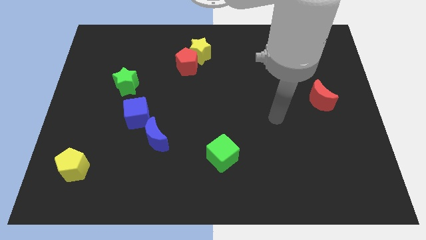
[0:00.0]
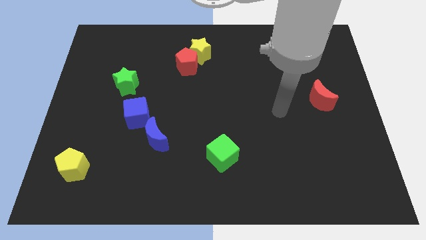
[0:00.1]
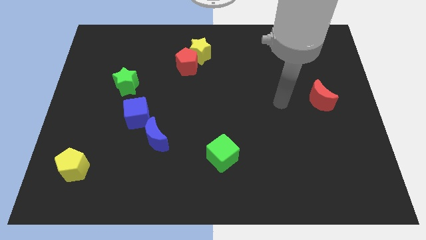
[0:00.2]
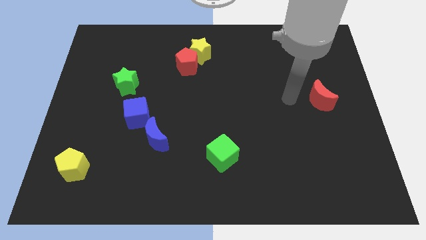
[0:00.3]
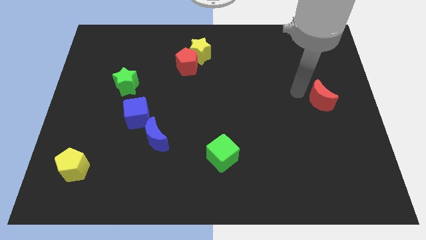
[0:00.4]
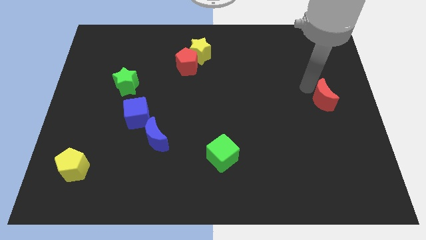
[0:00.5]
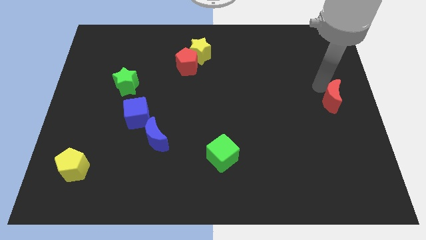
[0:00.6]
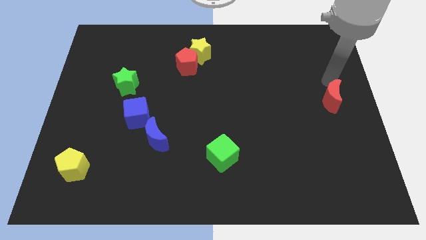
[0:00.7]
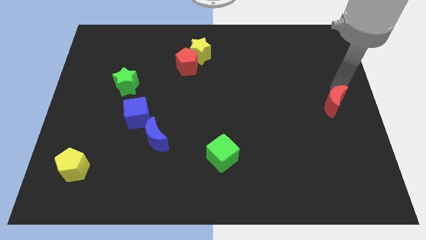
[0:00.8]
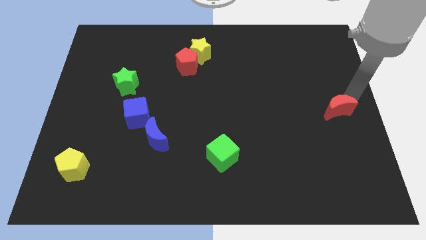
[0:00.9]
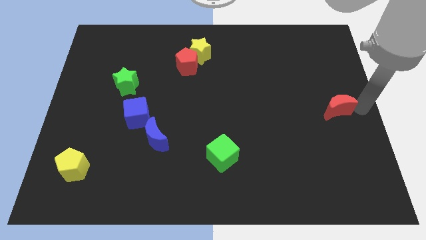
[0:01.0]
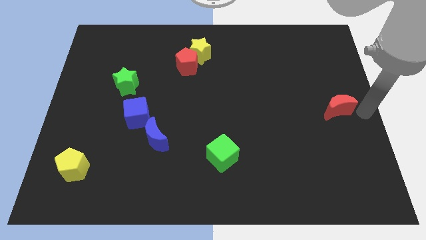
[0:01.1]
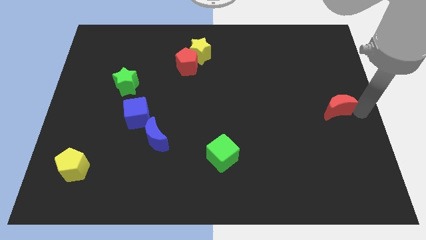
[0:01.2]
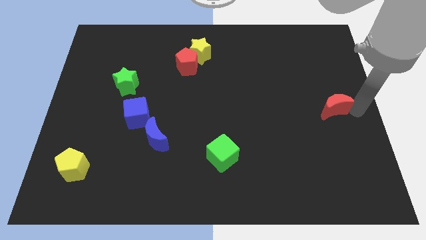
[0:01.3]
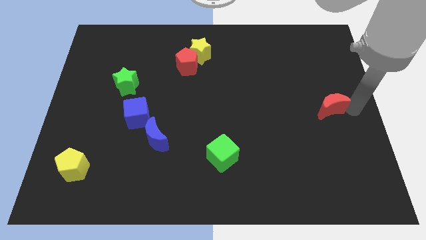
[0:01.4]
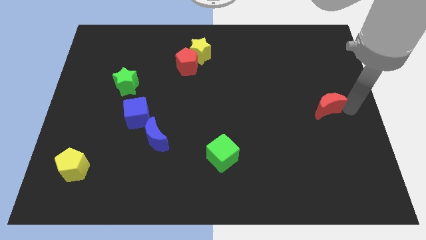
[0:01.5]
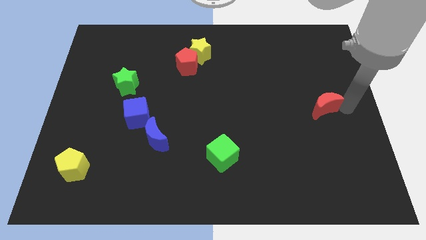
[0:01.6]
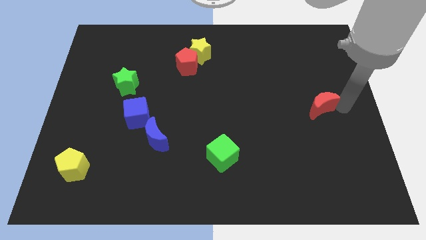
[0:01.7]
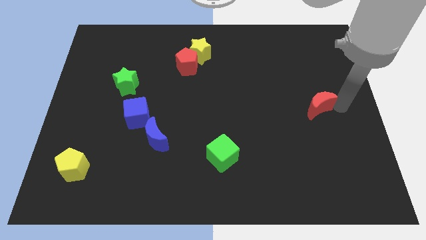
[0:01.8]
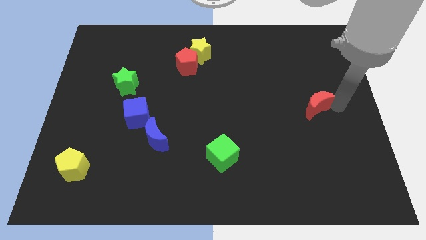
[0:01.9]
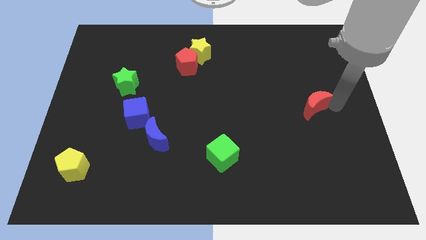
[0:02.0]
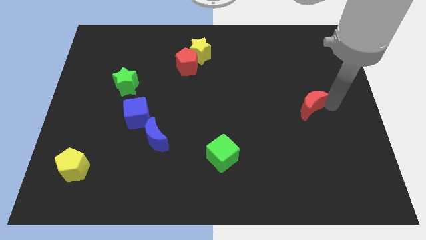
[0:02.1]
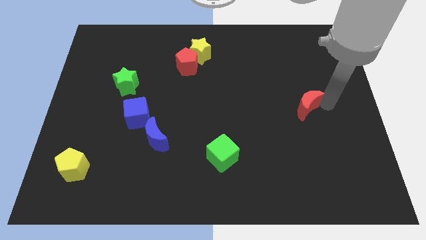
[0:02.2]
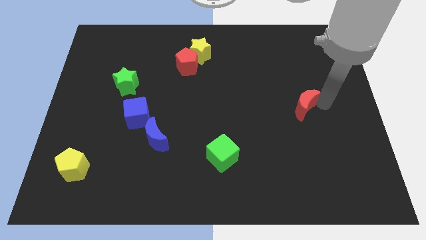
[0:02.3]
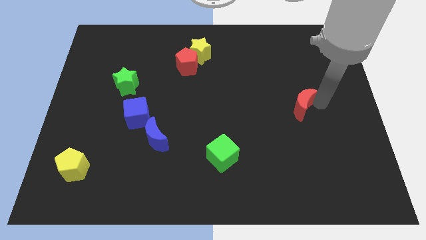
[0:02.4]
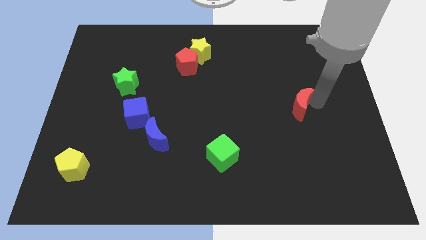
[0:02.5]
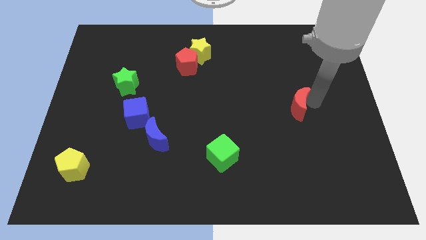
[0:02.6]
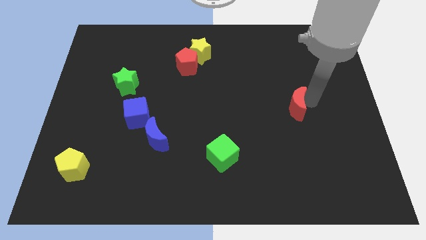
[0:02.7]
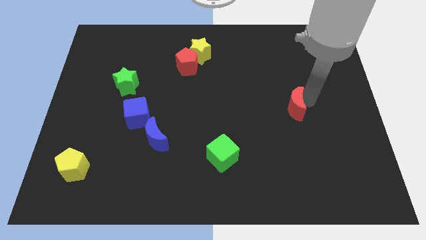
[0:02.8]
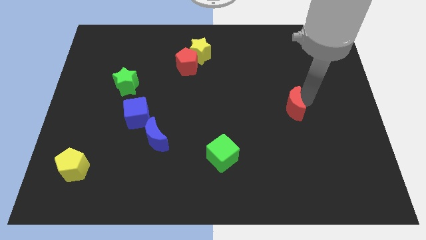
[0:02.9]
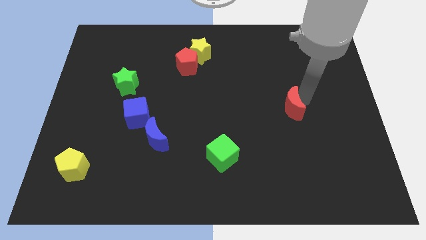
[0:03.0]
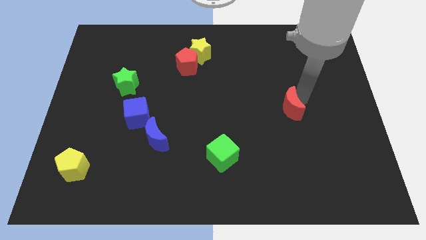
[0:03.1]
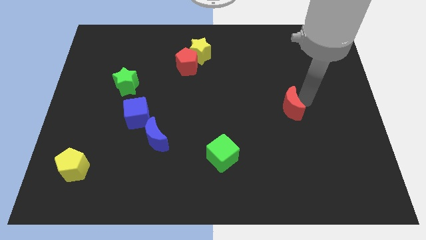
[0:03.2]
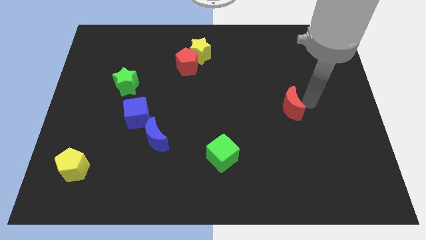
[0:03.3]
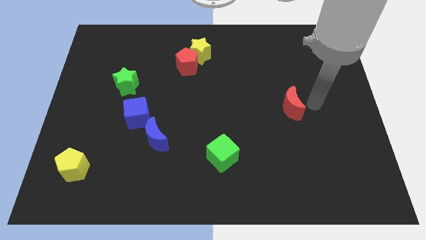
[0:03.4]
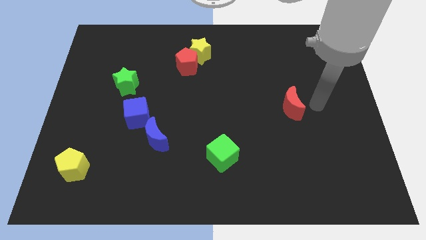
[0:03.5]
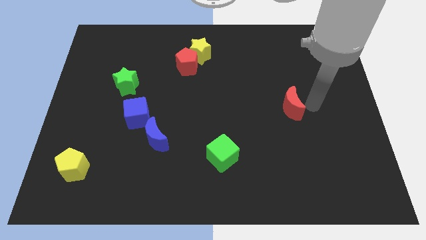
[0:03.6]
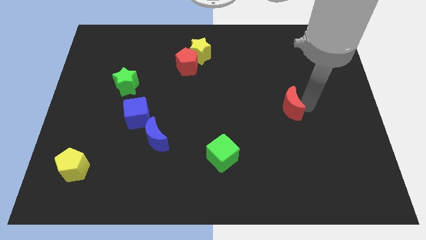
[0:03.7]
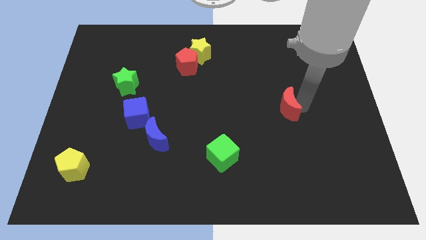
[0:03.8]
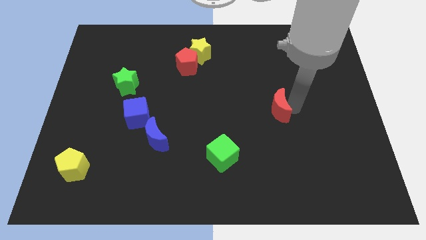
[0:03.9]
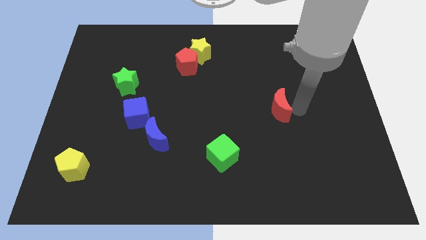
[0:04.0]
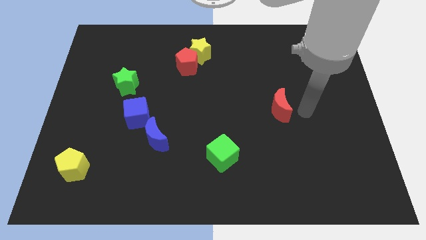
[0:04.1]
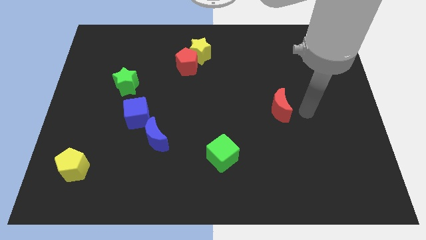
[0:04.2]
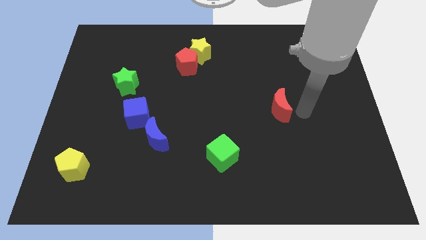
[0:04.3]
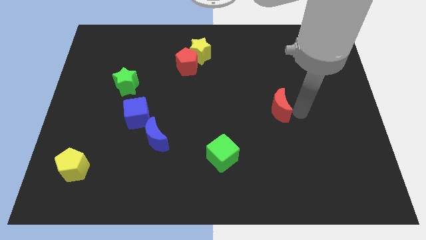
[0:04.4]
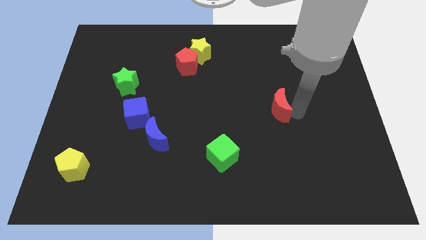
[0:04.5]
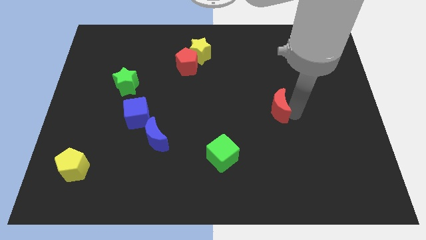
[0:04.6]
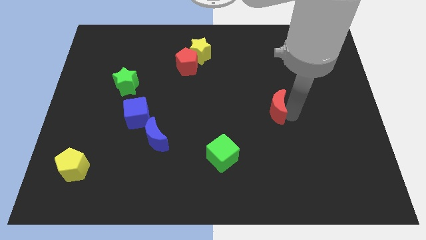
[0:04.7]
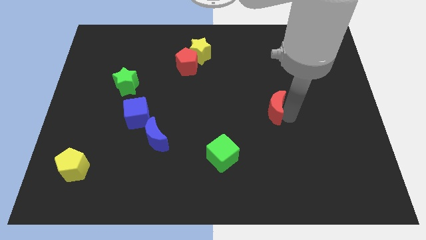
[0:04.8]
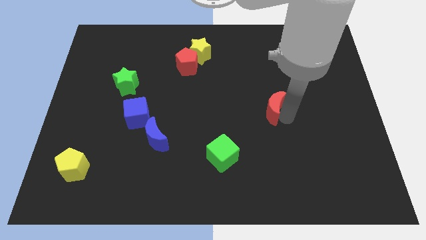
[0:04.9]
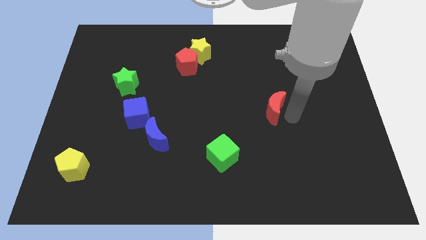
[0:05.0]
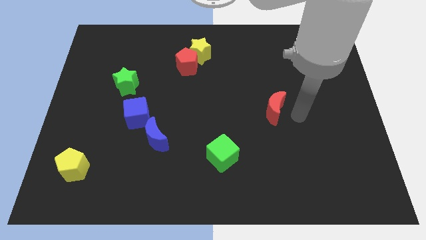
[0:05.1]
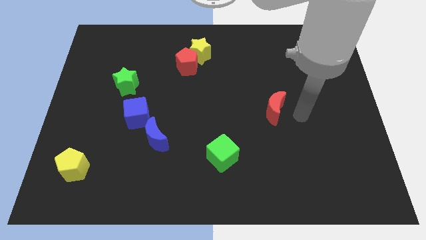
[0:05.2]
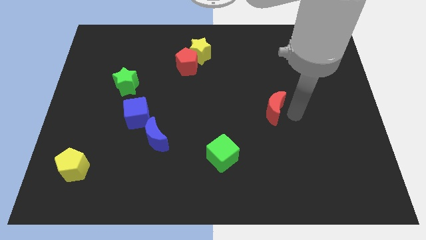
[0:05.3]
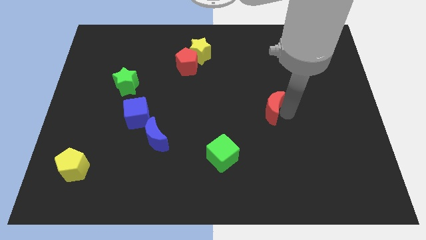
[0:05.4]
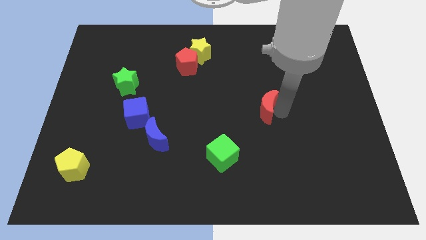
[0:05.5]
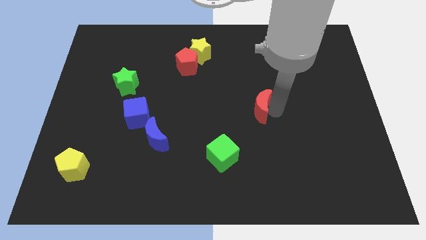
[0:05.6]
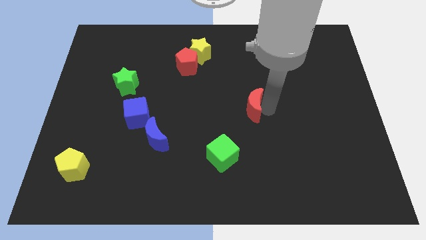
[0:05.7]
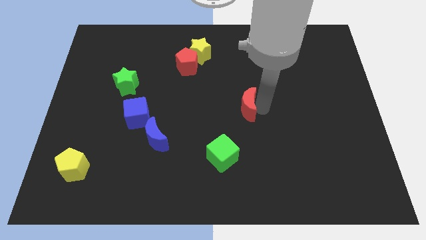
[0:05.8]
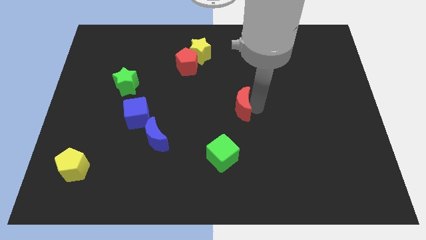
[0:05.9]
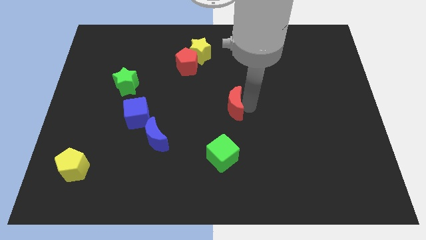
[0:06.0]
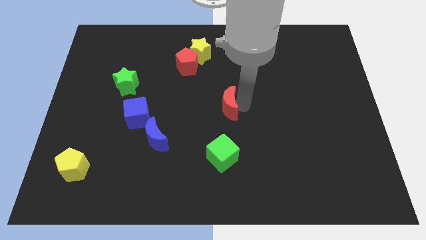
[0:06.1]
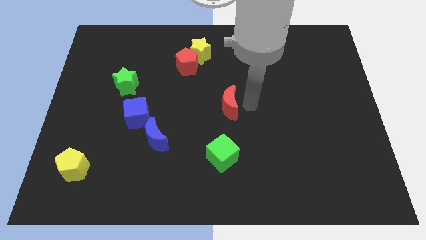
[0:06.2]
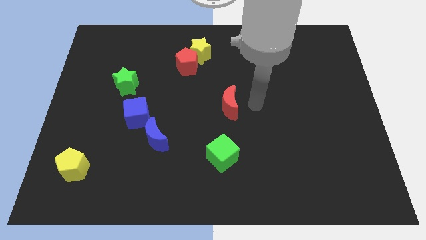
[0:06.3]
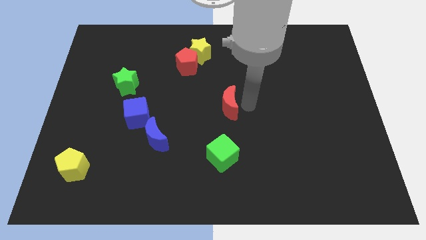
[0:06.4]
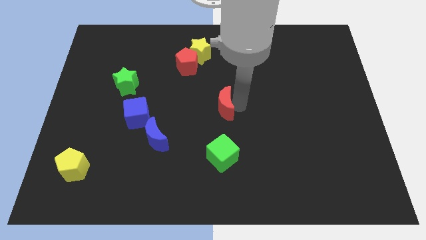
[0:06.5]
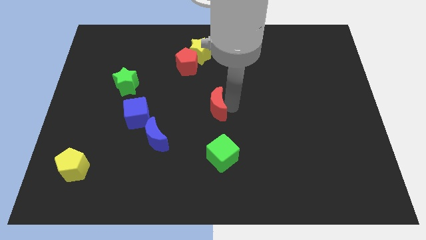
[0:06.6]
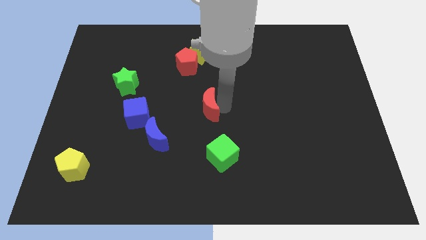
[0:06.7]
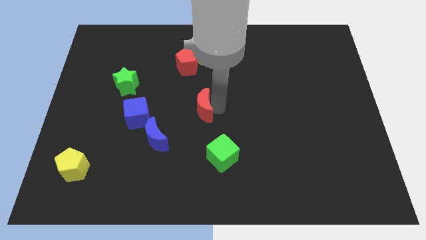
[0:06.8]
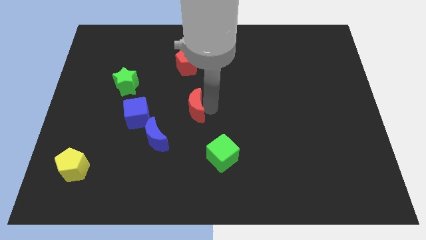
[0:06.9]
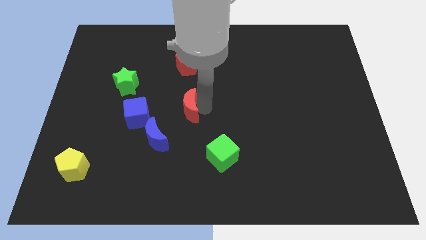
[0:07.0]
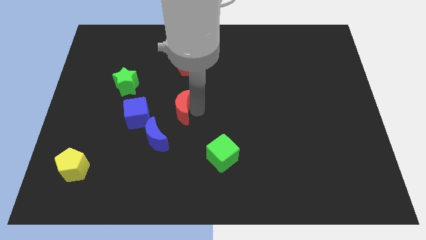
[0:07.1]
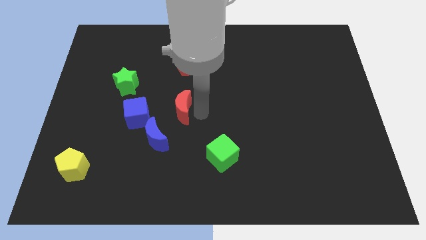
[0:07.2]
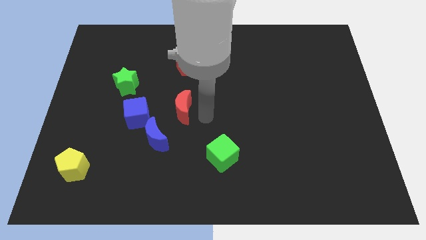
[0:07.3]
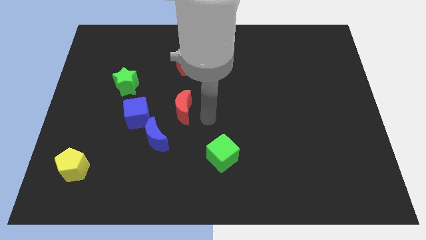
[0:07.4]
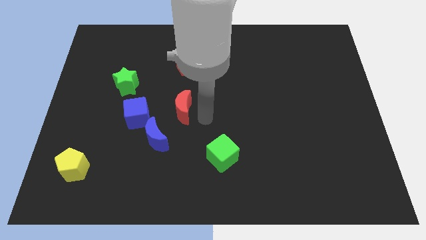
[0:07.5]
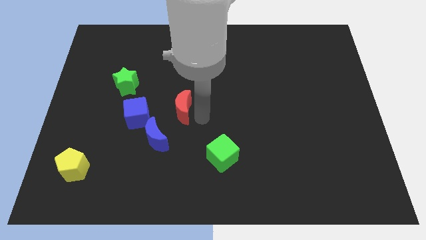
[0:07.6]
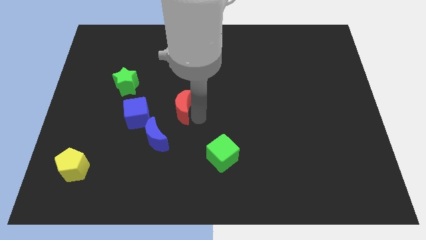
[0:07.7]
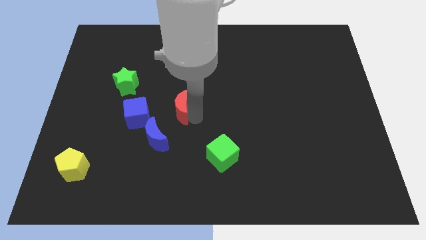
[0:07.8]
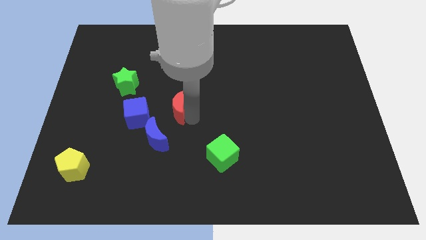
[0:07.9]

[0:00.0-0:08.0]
slide the red moon to the top of the blue moon

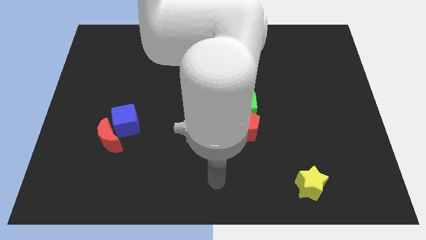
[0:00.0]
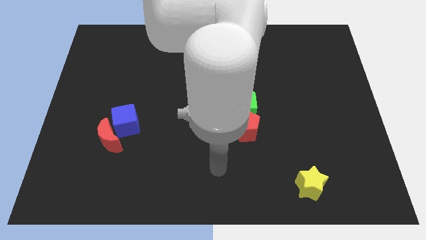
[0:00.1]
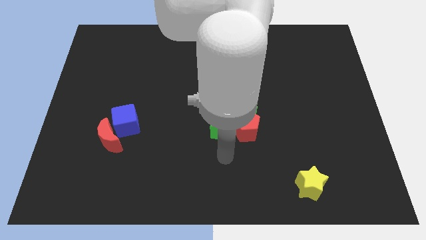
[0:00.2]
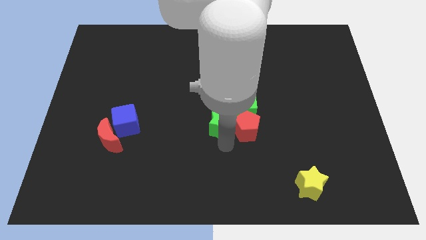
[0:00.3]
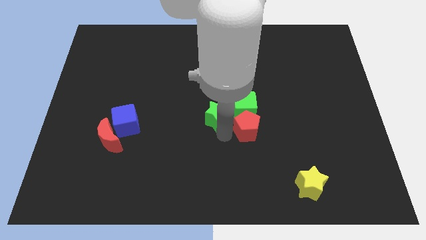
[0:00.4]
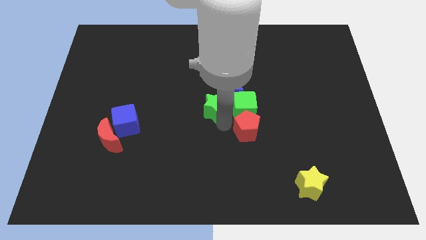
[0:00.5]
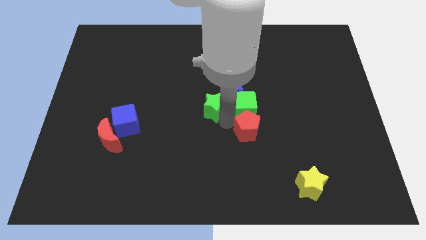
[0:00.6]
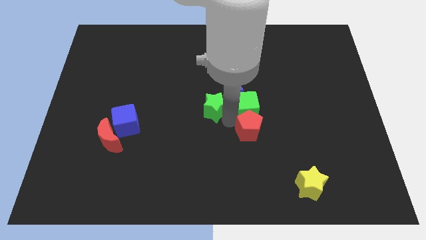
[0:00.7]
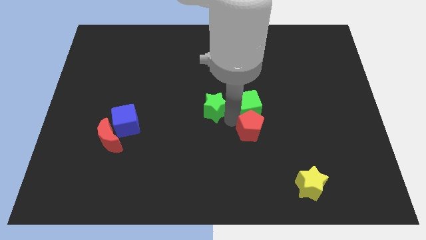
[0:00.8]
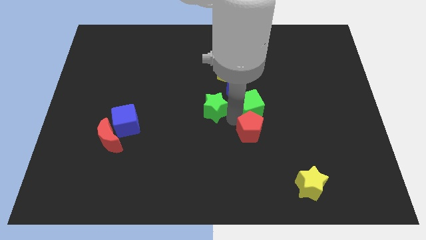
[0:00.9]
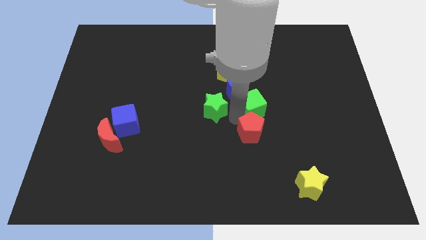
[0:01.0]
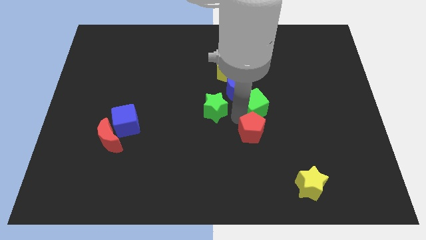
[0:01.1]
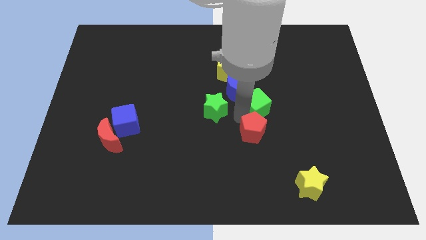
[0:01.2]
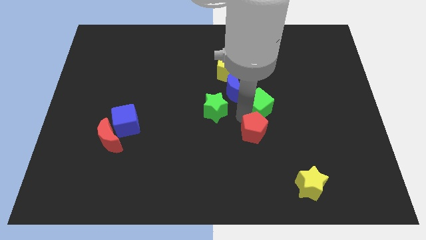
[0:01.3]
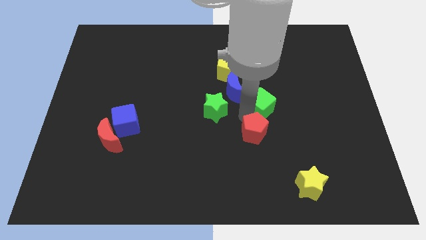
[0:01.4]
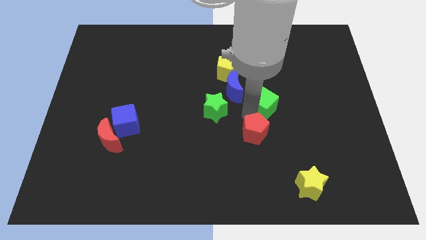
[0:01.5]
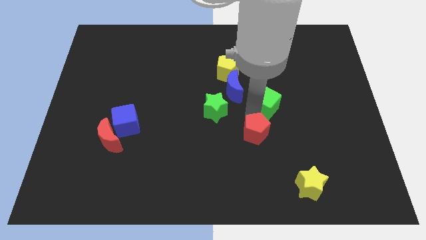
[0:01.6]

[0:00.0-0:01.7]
slide the green cube to the right of the blue moon
